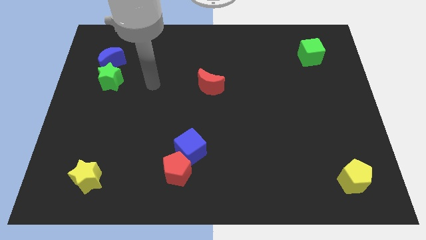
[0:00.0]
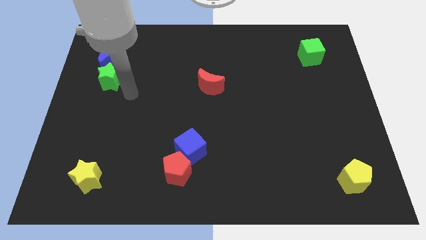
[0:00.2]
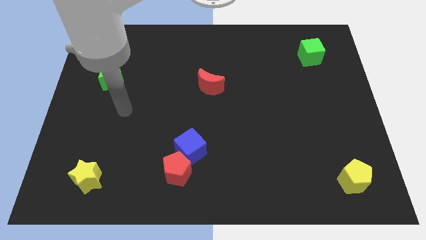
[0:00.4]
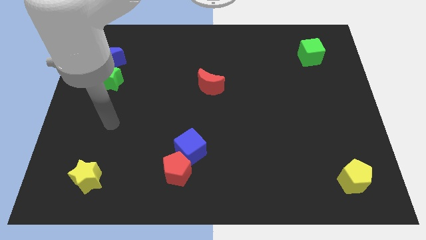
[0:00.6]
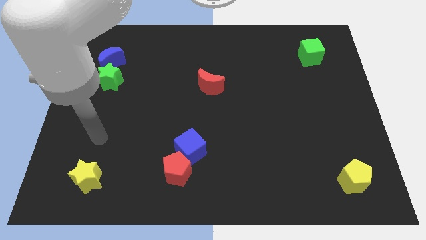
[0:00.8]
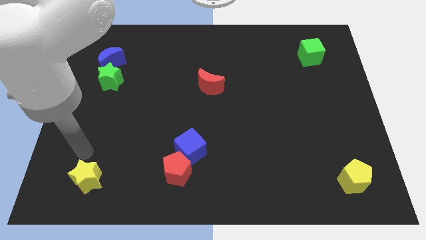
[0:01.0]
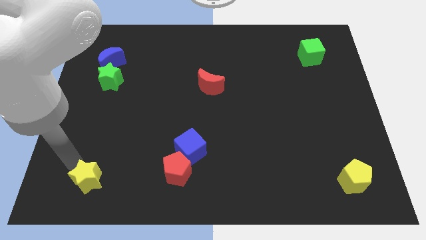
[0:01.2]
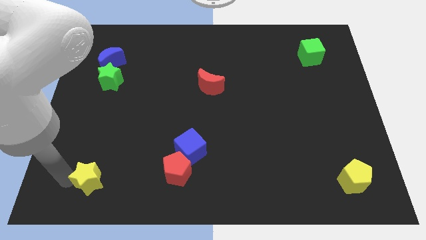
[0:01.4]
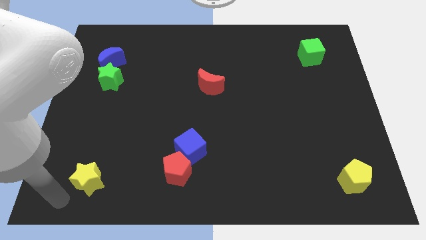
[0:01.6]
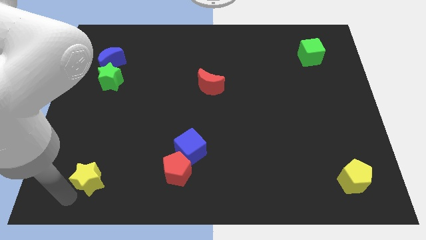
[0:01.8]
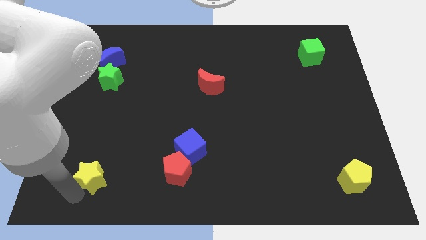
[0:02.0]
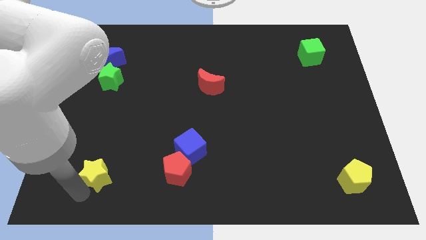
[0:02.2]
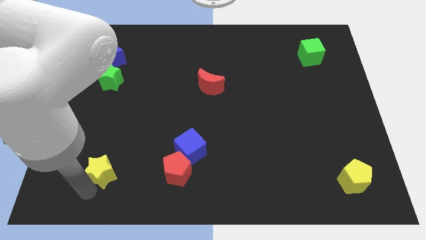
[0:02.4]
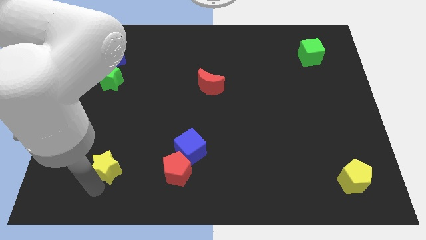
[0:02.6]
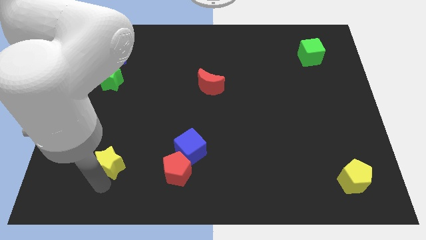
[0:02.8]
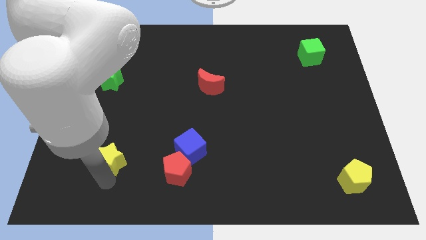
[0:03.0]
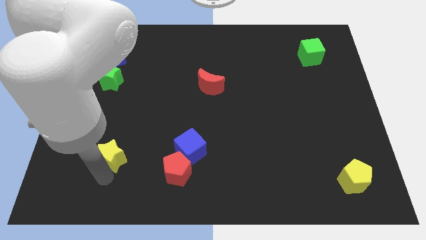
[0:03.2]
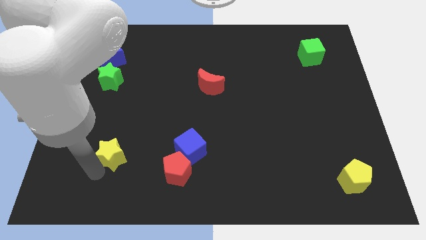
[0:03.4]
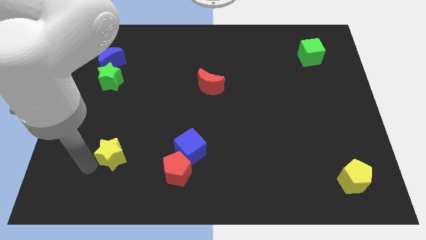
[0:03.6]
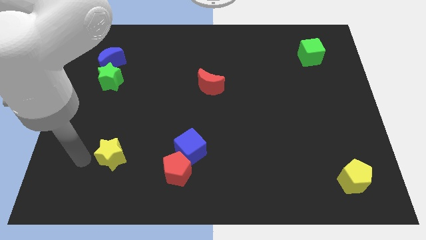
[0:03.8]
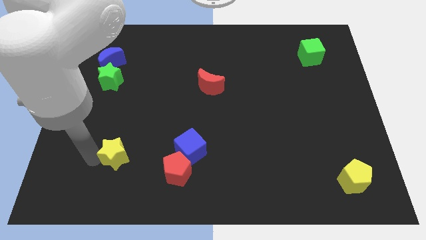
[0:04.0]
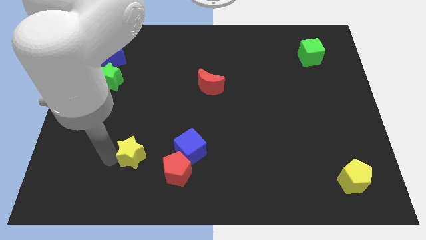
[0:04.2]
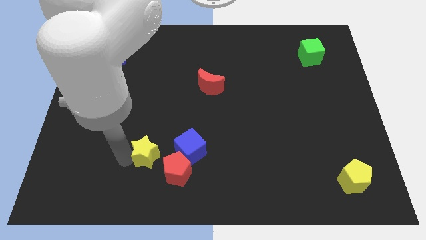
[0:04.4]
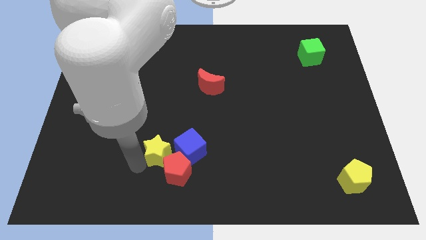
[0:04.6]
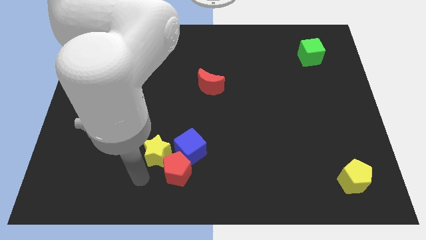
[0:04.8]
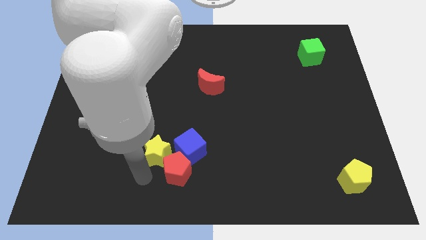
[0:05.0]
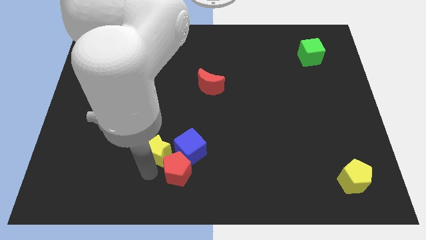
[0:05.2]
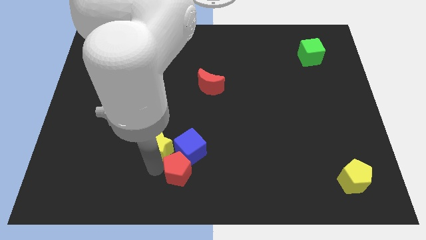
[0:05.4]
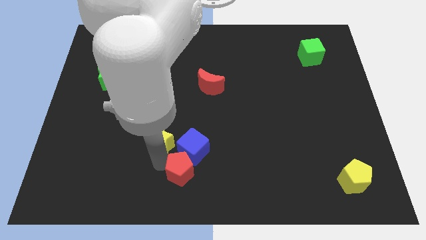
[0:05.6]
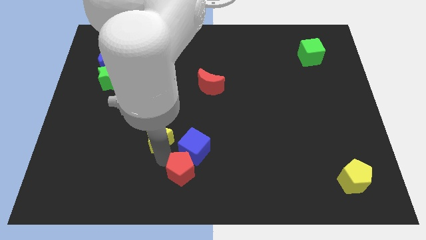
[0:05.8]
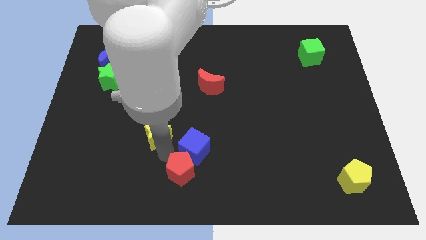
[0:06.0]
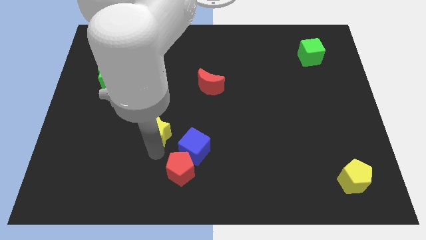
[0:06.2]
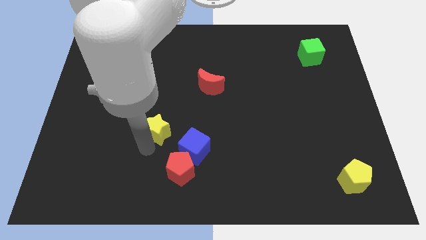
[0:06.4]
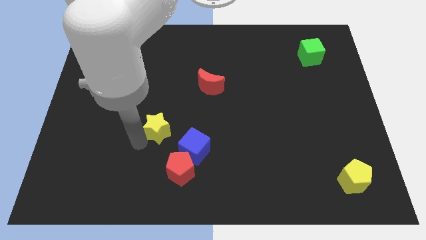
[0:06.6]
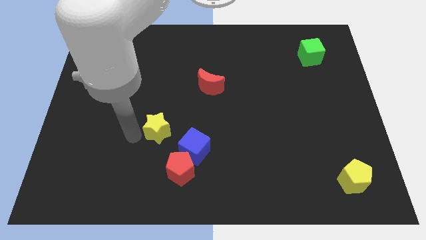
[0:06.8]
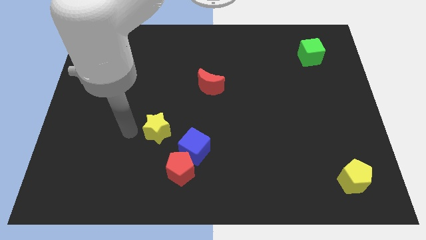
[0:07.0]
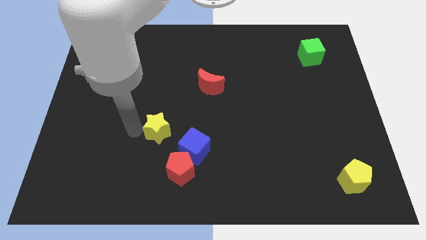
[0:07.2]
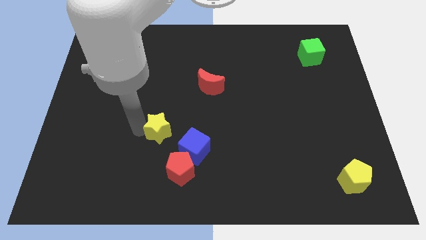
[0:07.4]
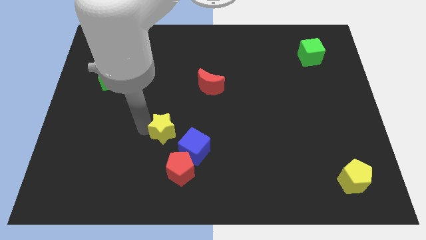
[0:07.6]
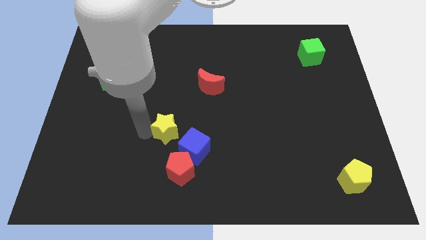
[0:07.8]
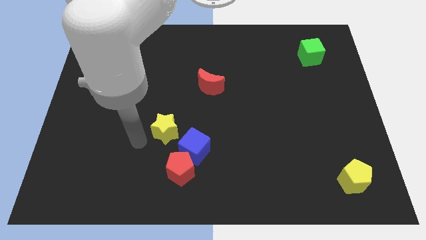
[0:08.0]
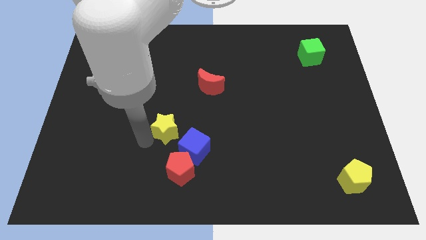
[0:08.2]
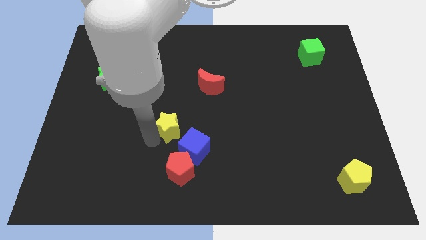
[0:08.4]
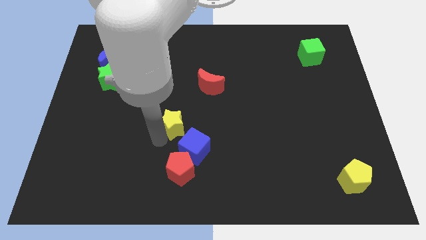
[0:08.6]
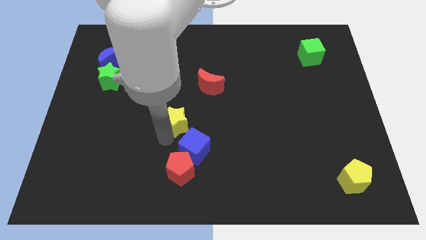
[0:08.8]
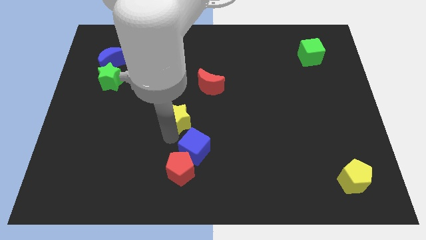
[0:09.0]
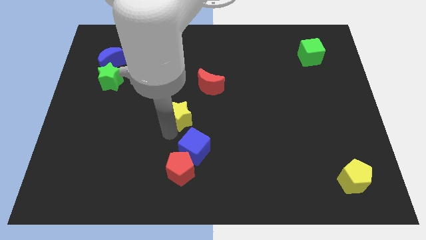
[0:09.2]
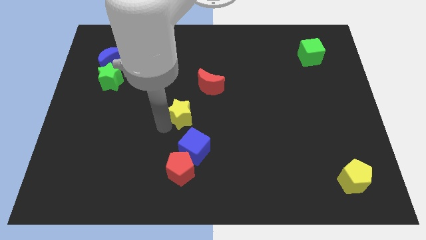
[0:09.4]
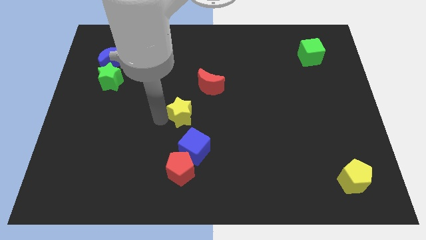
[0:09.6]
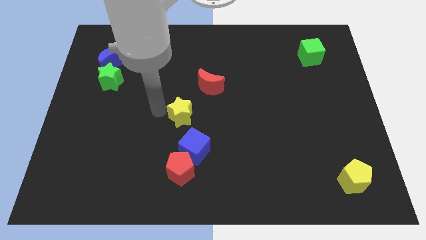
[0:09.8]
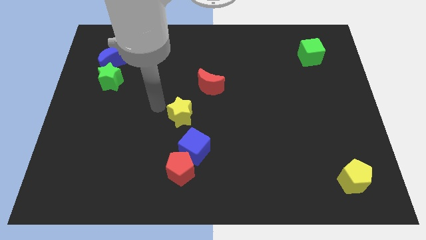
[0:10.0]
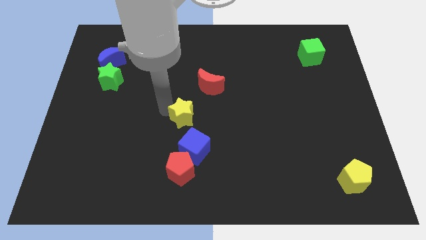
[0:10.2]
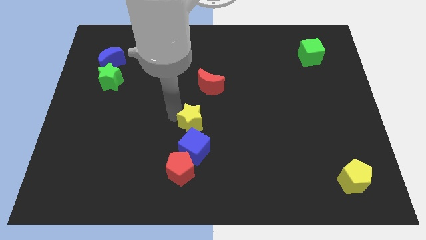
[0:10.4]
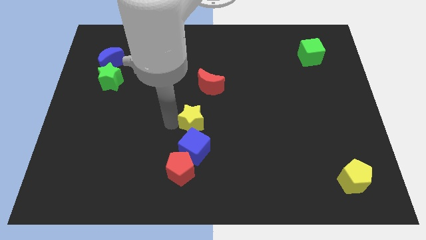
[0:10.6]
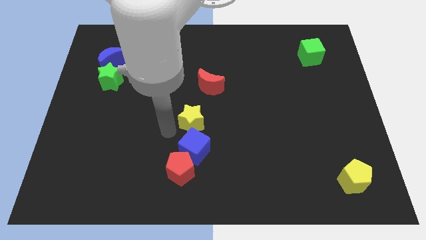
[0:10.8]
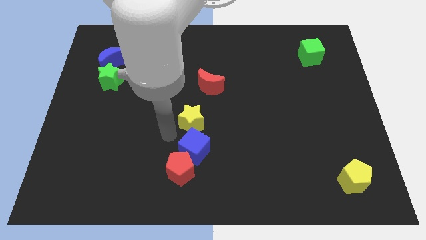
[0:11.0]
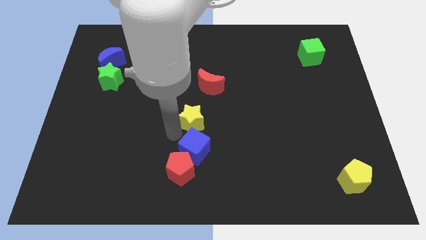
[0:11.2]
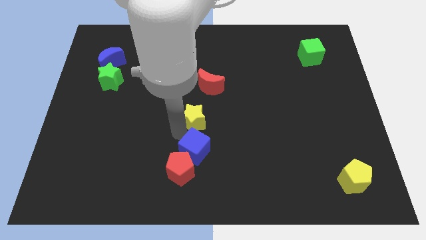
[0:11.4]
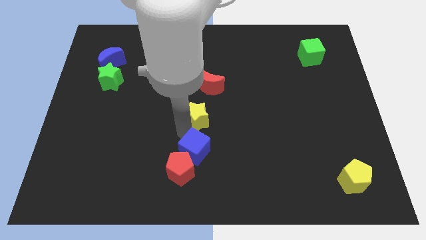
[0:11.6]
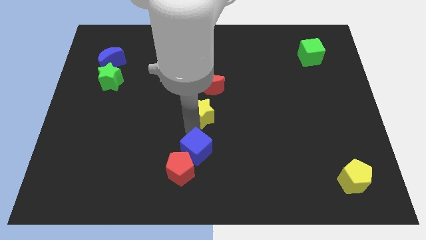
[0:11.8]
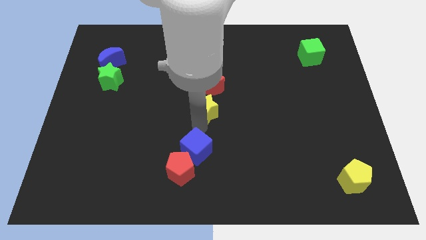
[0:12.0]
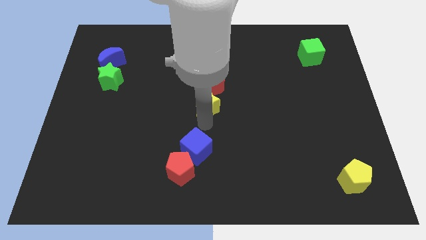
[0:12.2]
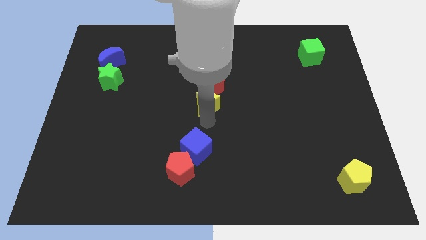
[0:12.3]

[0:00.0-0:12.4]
slide the yellow star to the bottom right side of the red moon

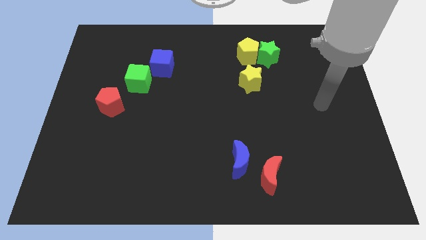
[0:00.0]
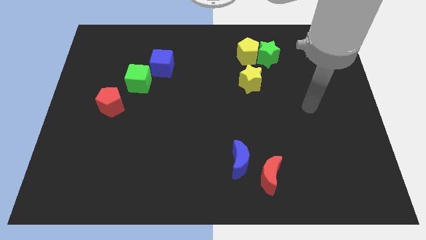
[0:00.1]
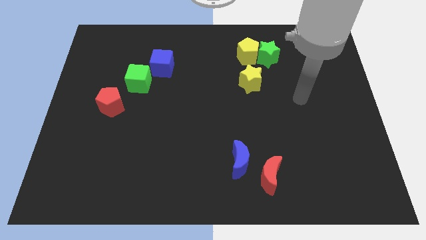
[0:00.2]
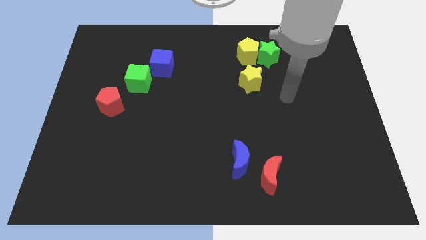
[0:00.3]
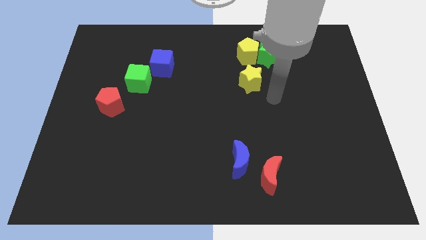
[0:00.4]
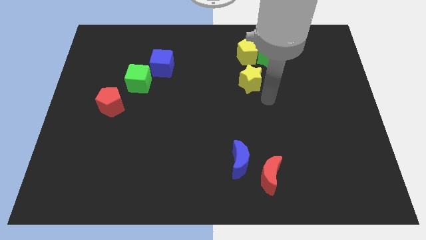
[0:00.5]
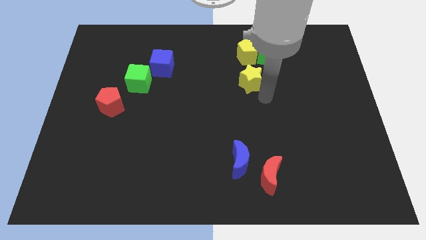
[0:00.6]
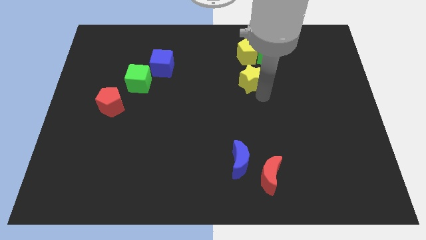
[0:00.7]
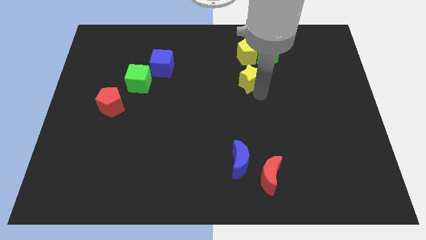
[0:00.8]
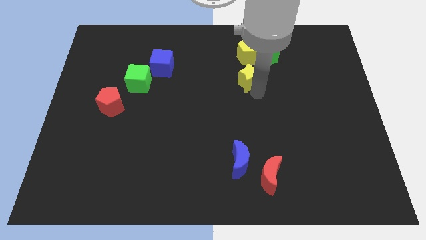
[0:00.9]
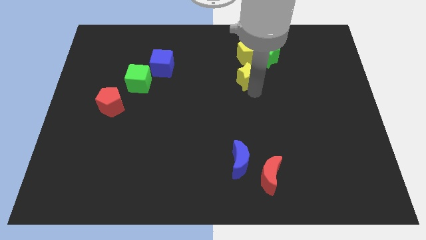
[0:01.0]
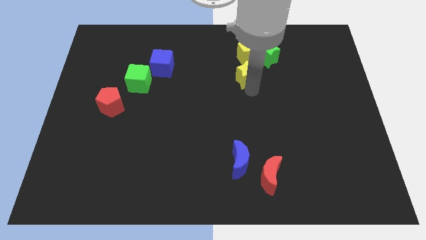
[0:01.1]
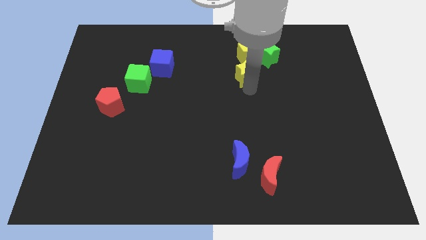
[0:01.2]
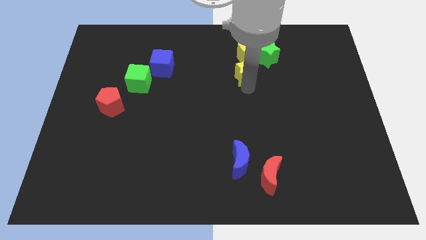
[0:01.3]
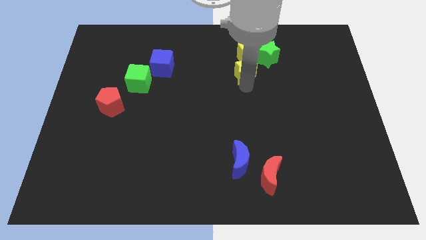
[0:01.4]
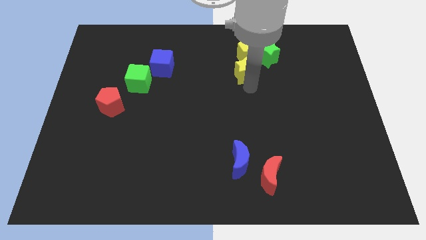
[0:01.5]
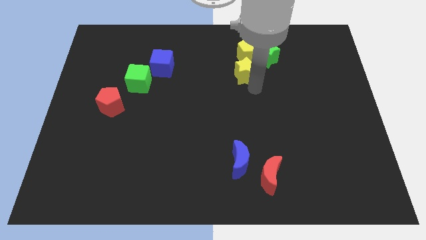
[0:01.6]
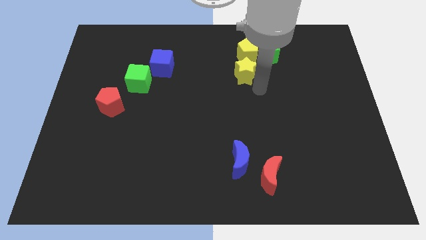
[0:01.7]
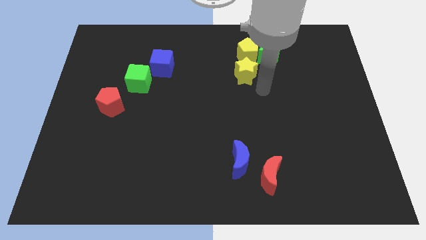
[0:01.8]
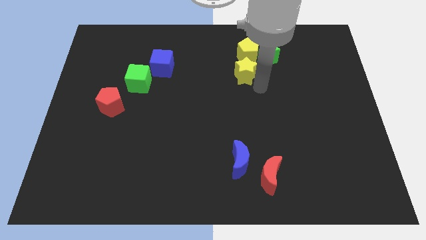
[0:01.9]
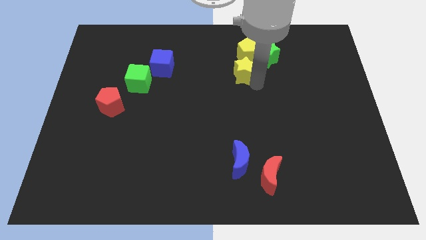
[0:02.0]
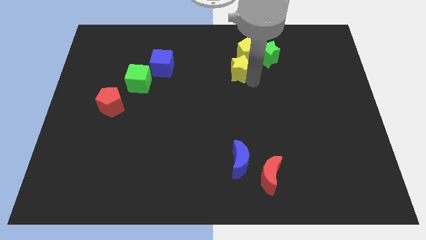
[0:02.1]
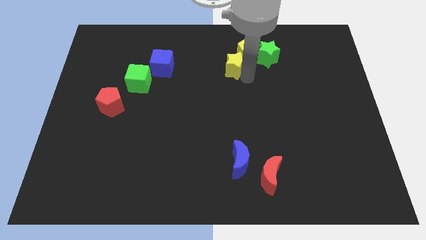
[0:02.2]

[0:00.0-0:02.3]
slide the yellow star just left of the green star
